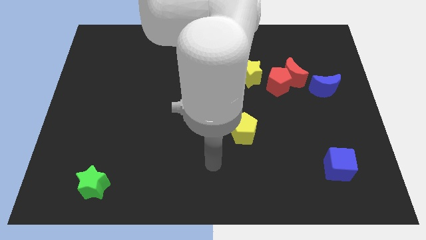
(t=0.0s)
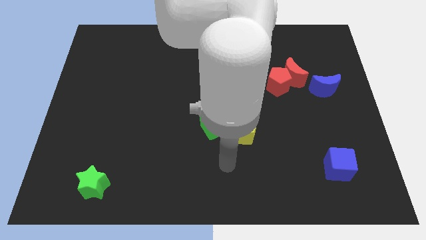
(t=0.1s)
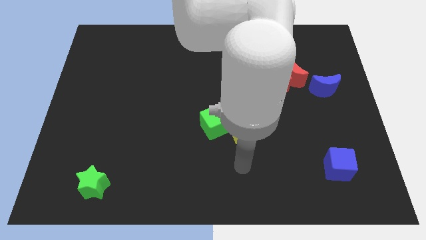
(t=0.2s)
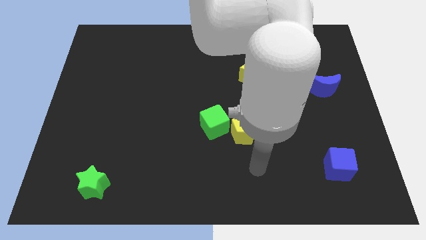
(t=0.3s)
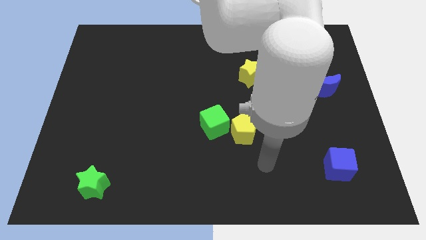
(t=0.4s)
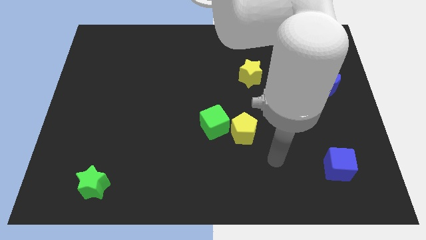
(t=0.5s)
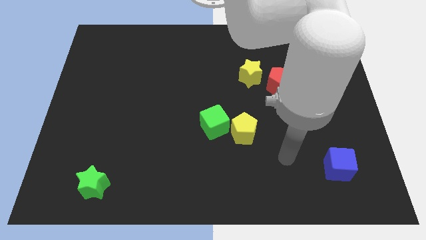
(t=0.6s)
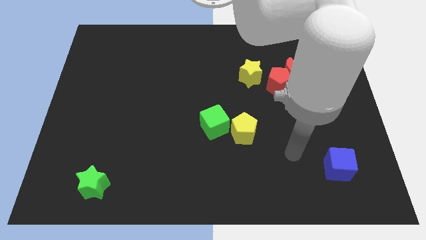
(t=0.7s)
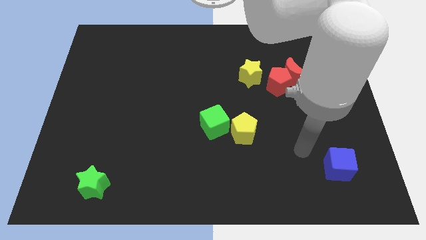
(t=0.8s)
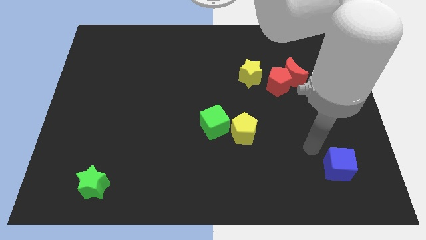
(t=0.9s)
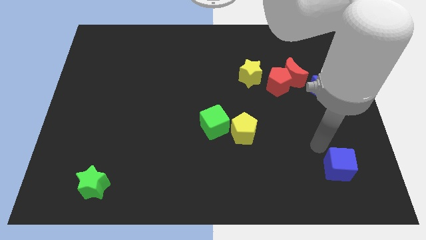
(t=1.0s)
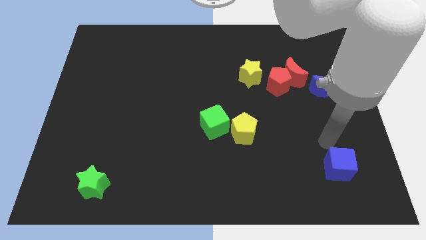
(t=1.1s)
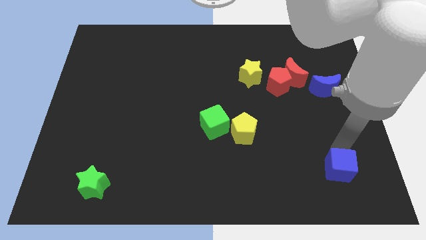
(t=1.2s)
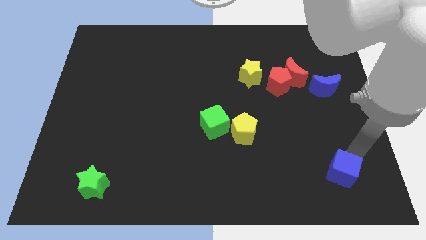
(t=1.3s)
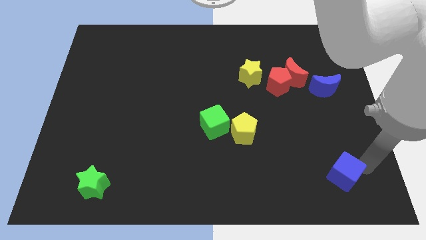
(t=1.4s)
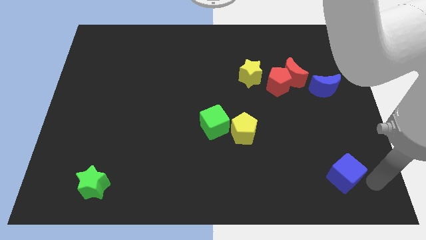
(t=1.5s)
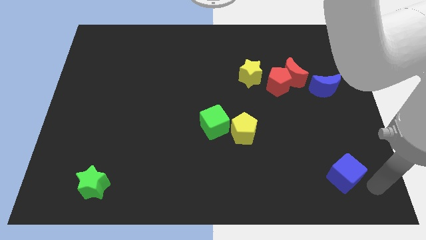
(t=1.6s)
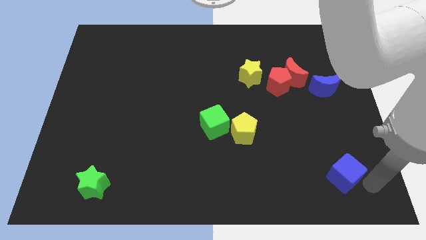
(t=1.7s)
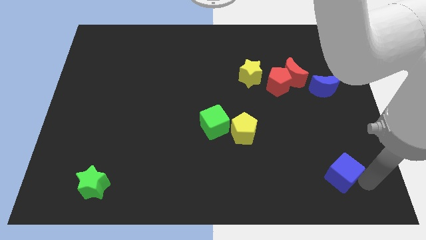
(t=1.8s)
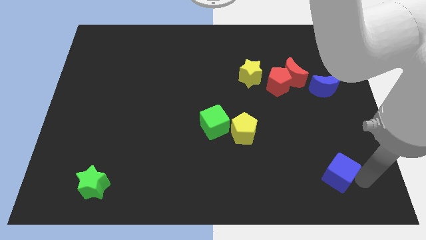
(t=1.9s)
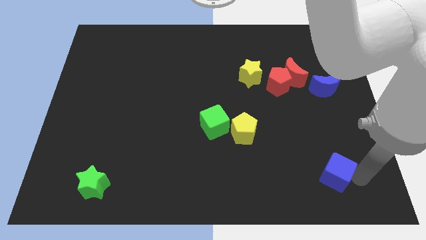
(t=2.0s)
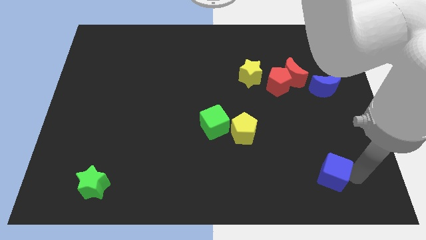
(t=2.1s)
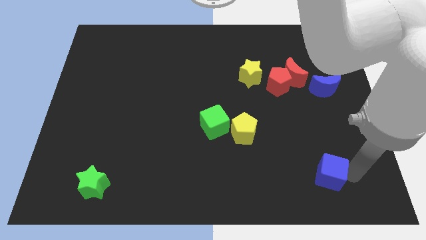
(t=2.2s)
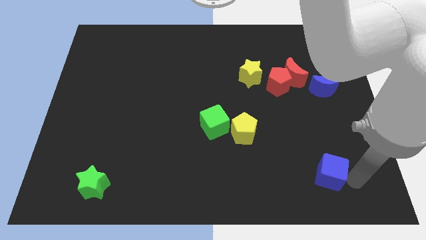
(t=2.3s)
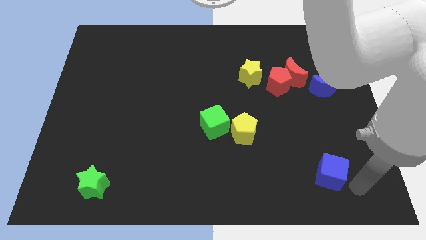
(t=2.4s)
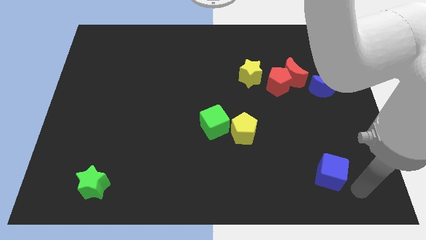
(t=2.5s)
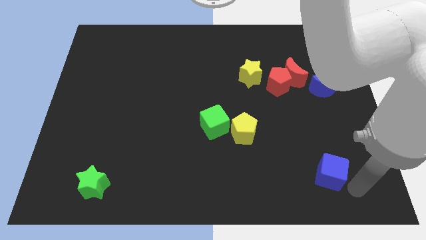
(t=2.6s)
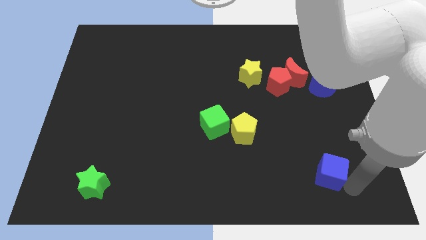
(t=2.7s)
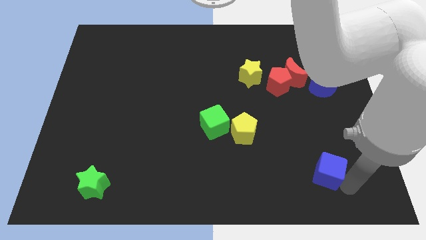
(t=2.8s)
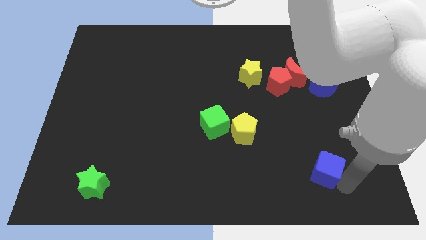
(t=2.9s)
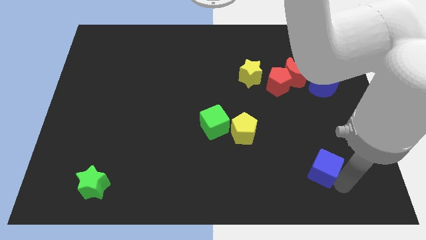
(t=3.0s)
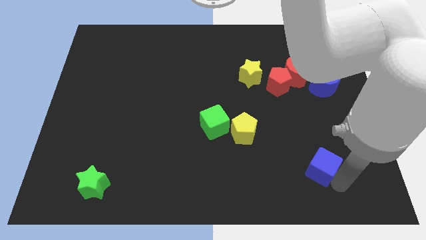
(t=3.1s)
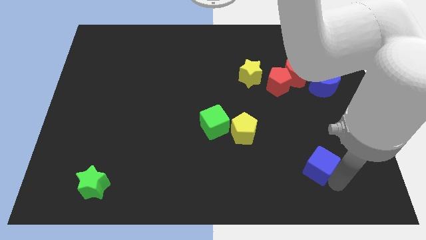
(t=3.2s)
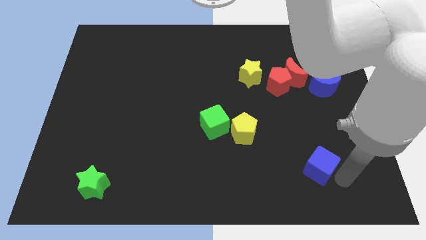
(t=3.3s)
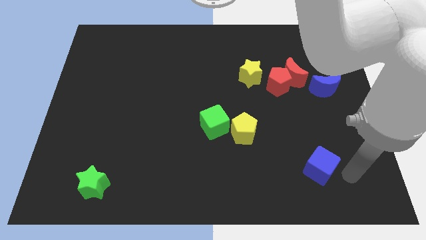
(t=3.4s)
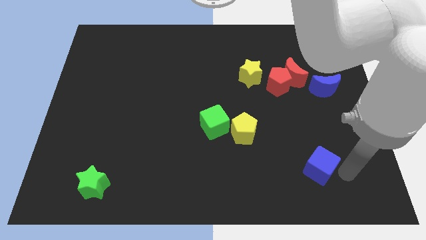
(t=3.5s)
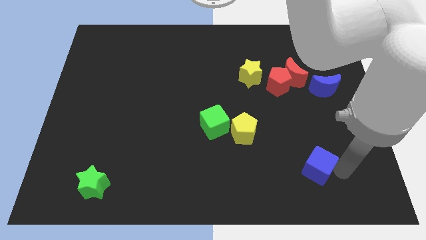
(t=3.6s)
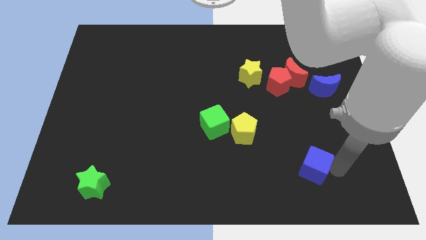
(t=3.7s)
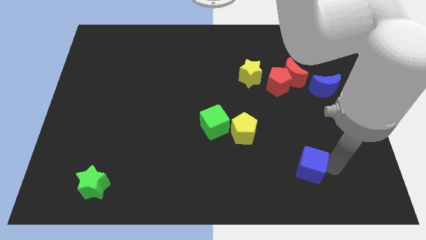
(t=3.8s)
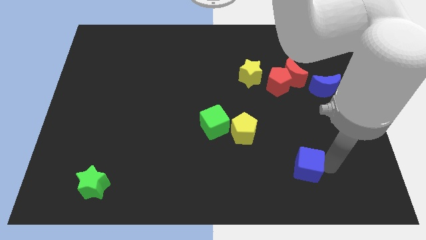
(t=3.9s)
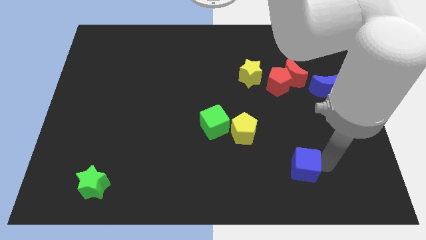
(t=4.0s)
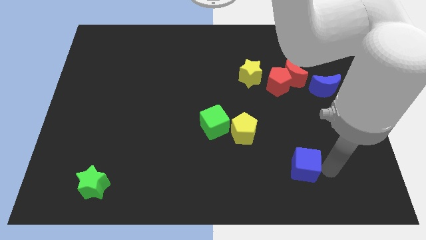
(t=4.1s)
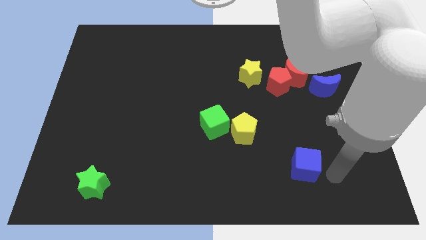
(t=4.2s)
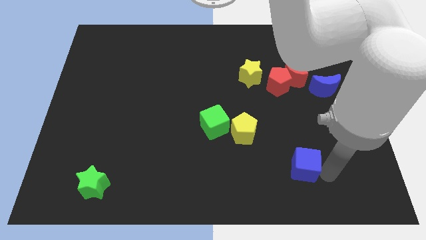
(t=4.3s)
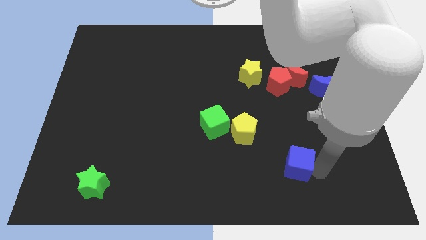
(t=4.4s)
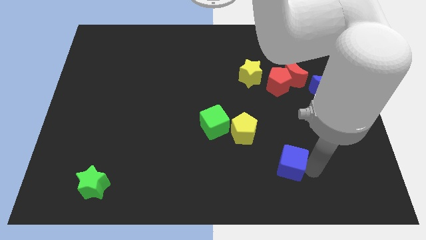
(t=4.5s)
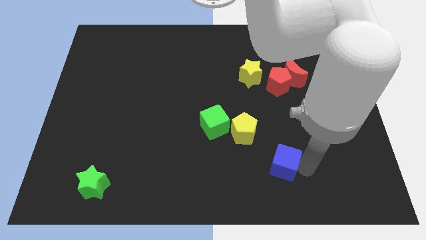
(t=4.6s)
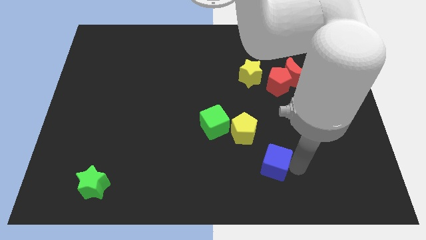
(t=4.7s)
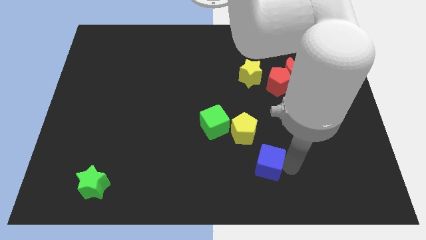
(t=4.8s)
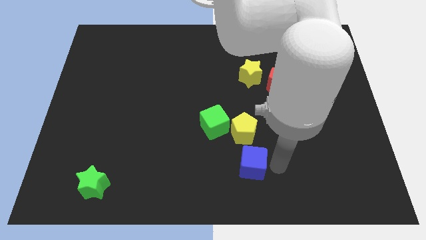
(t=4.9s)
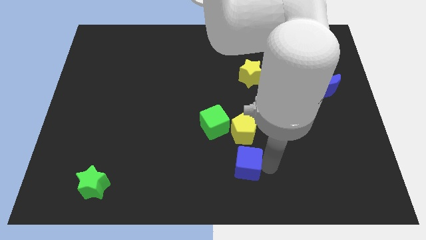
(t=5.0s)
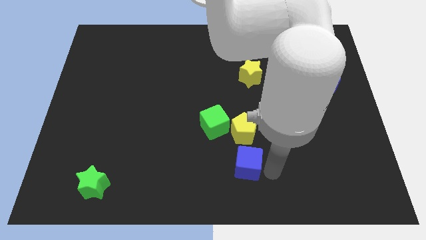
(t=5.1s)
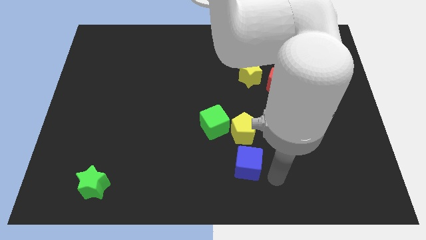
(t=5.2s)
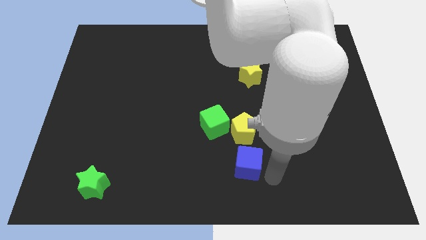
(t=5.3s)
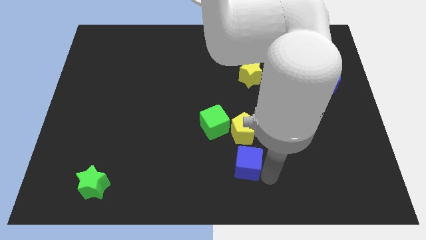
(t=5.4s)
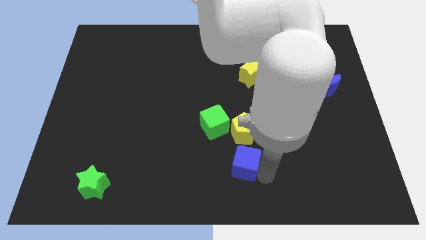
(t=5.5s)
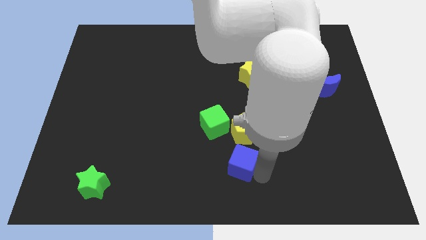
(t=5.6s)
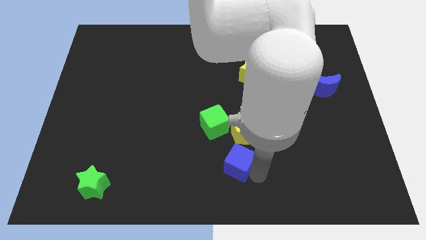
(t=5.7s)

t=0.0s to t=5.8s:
put the blue cube to the bottom left side of the yellow pentagon
